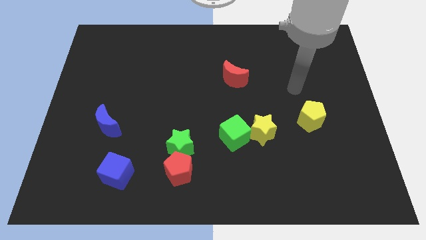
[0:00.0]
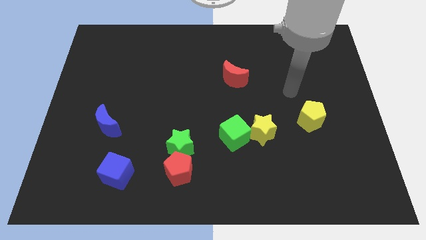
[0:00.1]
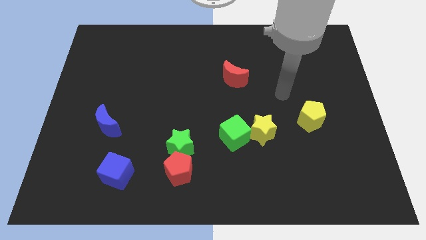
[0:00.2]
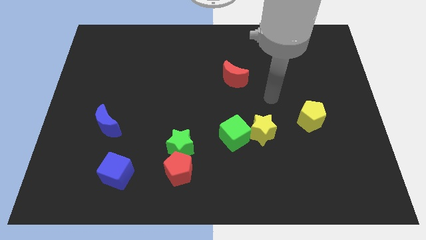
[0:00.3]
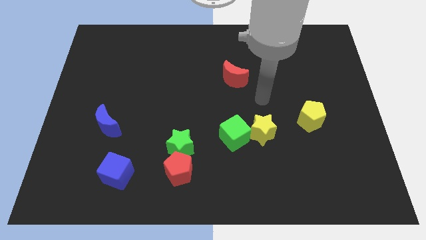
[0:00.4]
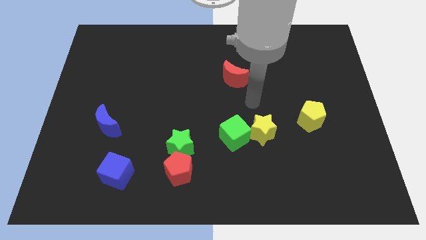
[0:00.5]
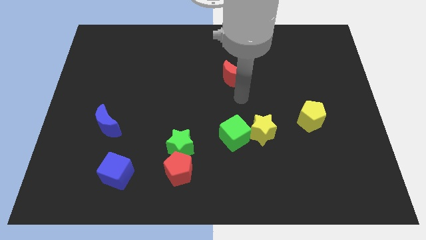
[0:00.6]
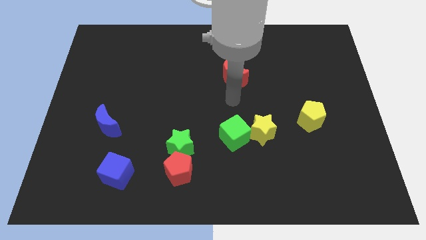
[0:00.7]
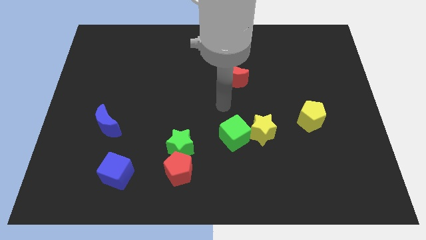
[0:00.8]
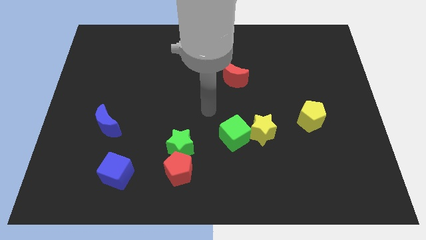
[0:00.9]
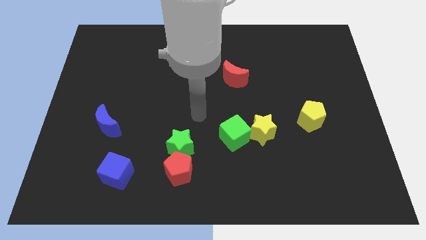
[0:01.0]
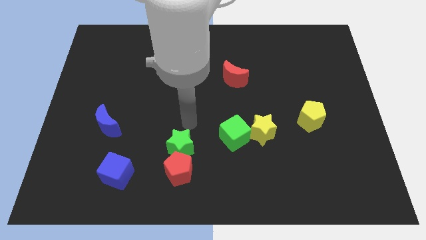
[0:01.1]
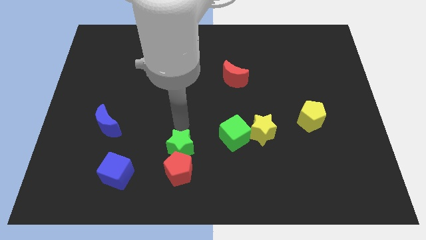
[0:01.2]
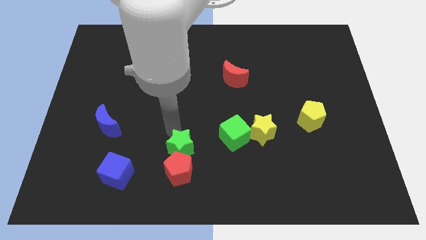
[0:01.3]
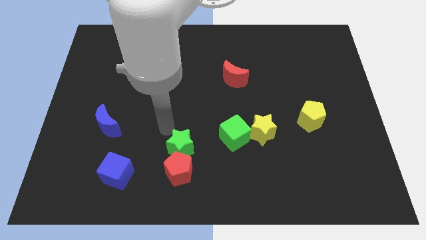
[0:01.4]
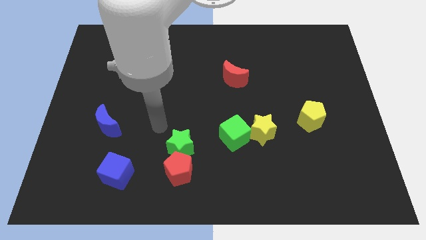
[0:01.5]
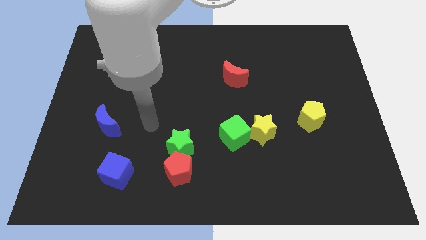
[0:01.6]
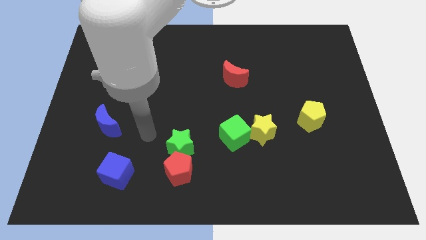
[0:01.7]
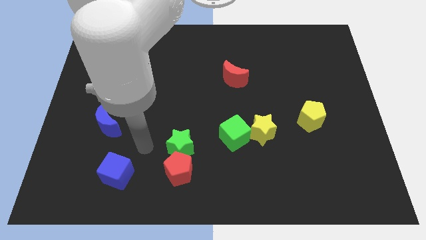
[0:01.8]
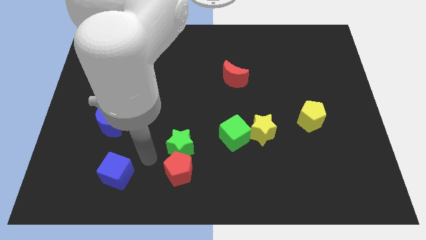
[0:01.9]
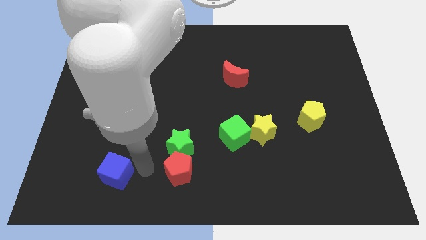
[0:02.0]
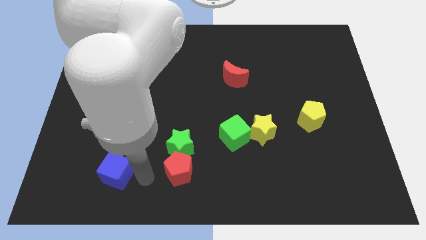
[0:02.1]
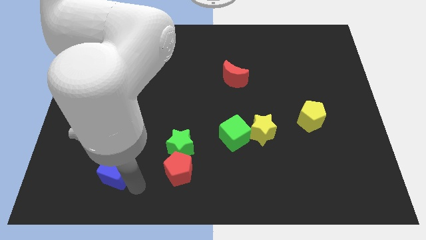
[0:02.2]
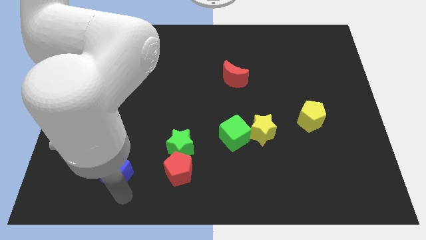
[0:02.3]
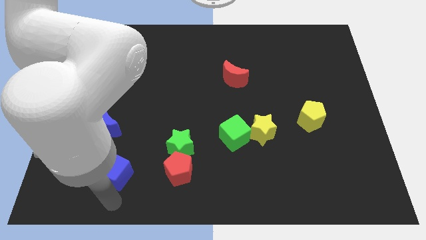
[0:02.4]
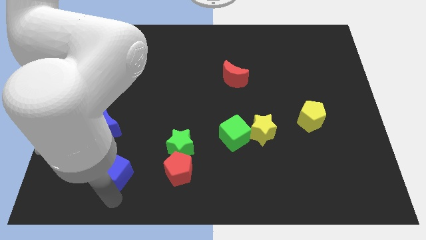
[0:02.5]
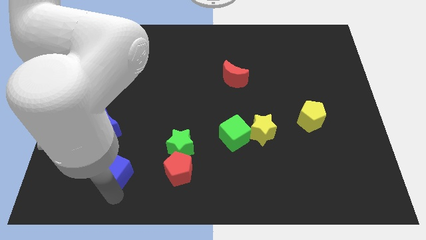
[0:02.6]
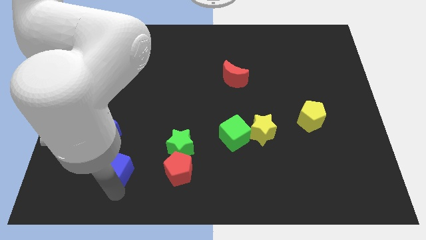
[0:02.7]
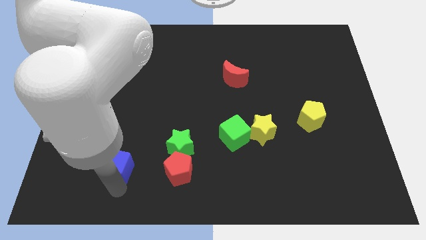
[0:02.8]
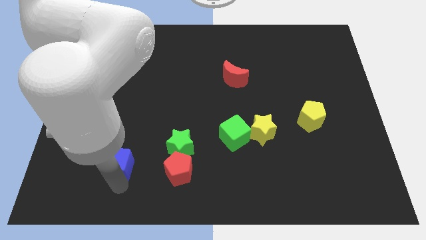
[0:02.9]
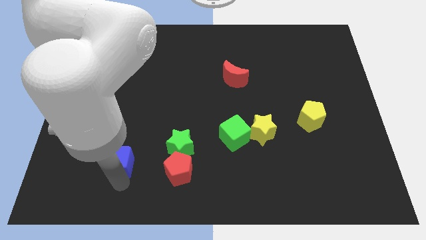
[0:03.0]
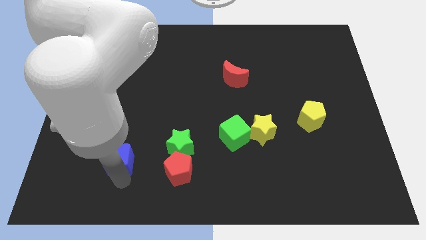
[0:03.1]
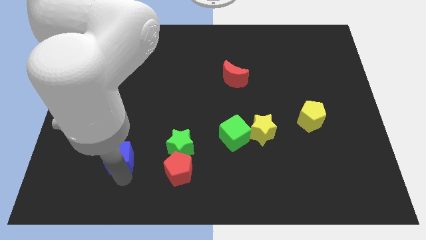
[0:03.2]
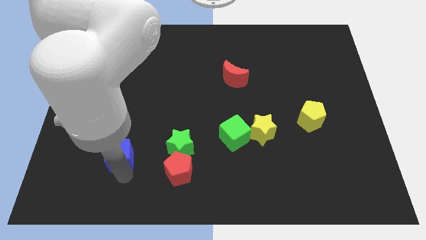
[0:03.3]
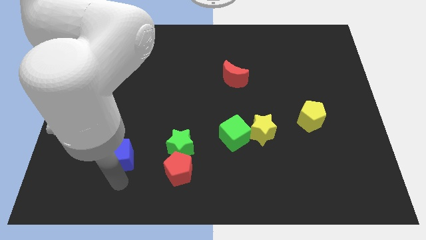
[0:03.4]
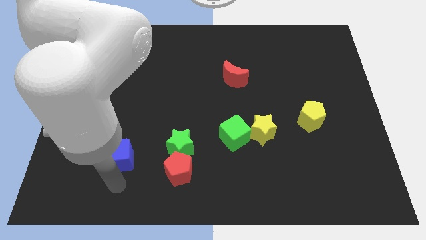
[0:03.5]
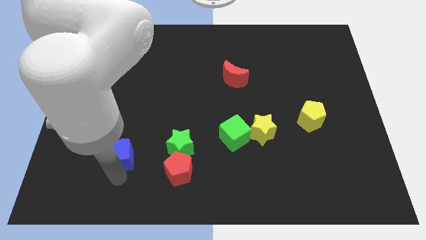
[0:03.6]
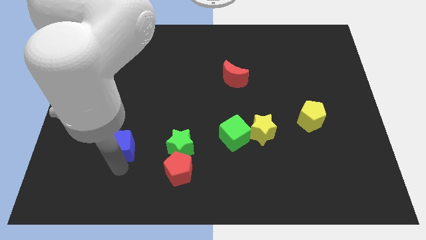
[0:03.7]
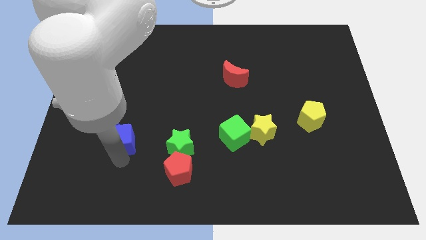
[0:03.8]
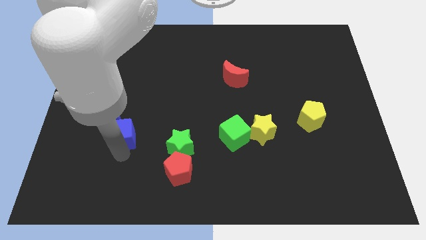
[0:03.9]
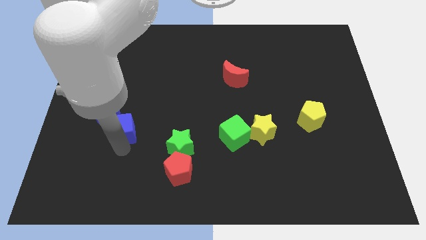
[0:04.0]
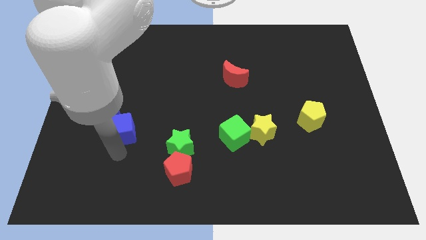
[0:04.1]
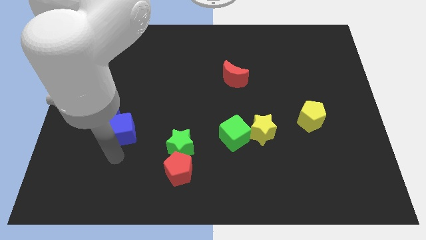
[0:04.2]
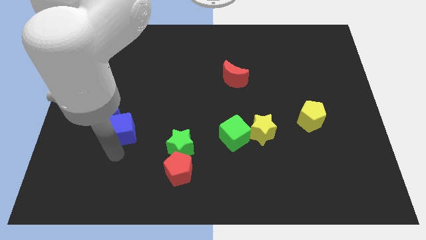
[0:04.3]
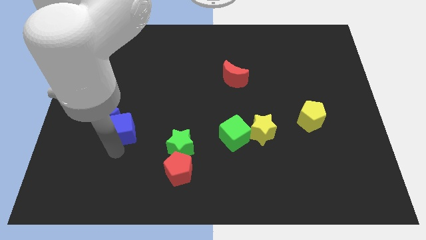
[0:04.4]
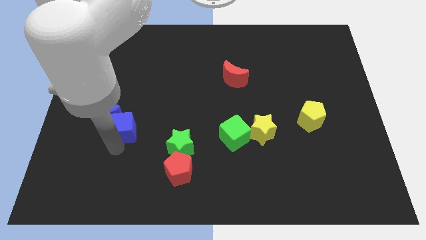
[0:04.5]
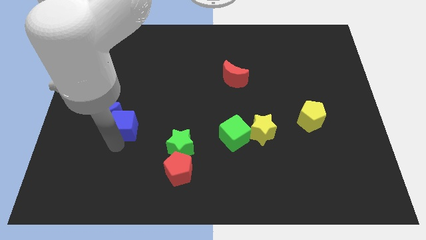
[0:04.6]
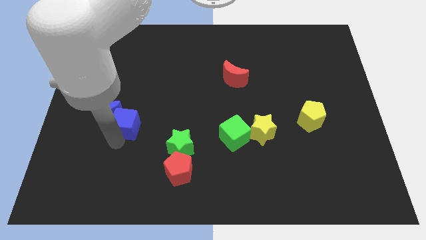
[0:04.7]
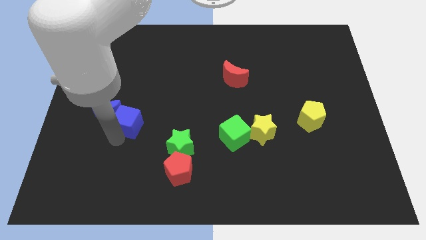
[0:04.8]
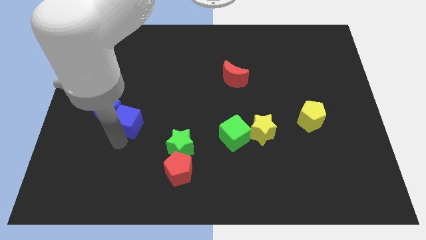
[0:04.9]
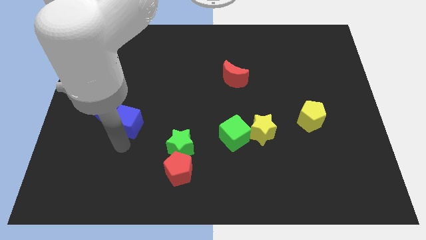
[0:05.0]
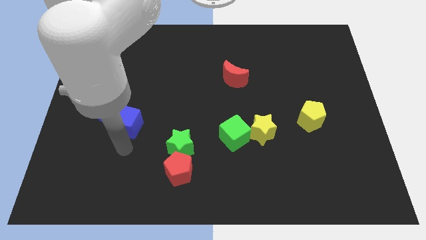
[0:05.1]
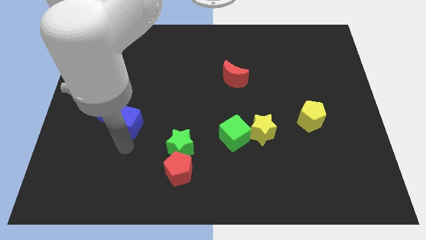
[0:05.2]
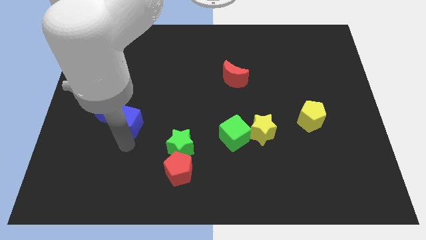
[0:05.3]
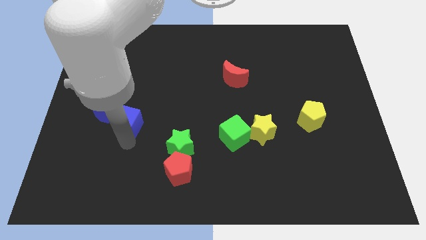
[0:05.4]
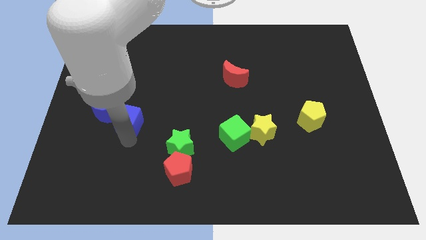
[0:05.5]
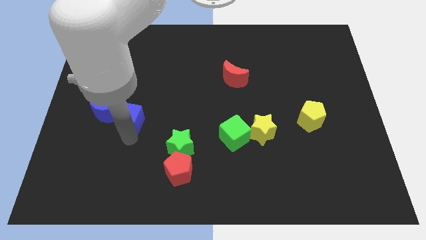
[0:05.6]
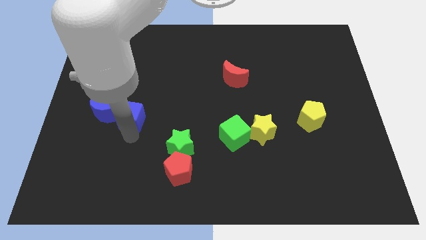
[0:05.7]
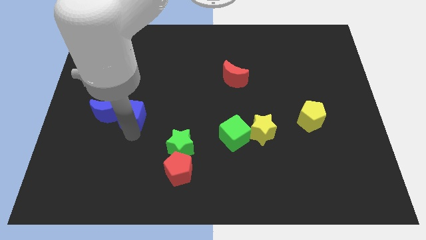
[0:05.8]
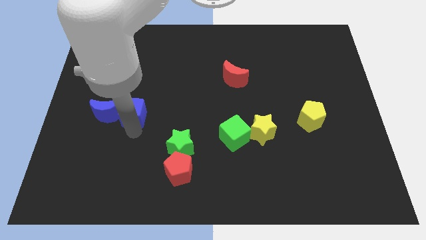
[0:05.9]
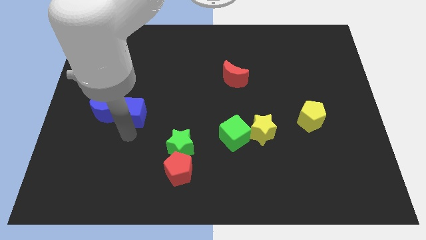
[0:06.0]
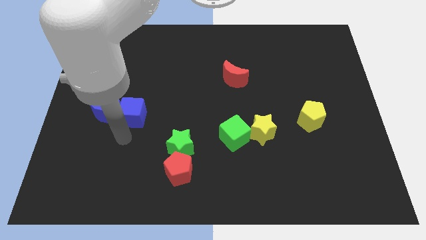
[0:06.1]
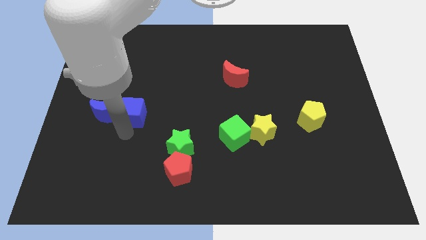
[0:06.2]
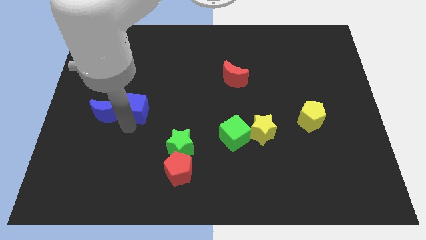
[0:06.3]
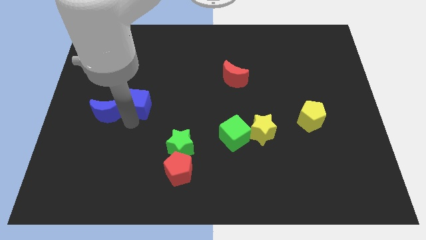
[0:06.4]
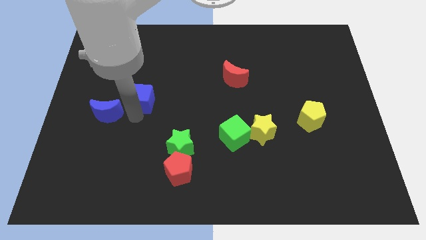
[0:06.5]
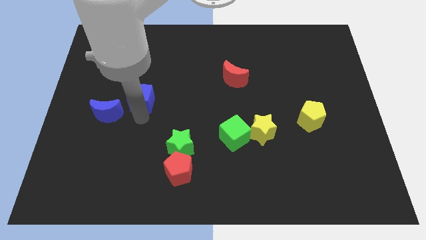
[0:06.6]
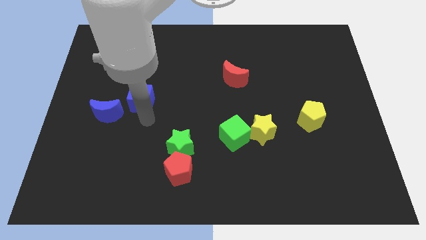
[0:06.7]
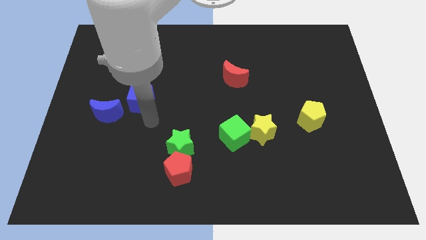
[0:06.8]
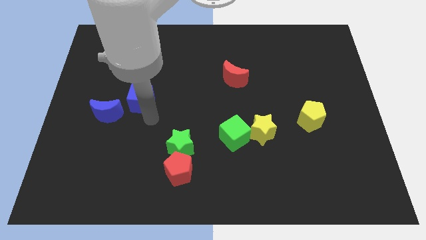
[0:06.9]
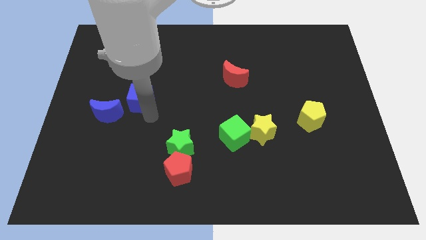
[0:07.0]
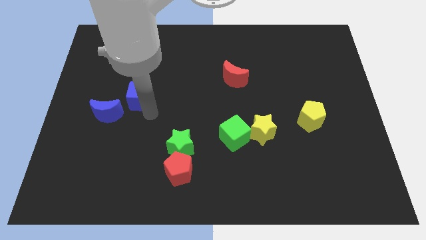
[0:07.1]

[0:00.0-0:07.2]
push the blue cube upwards

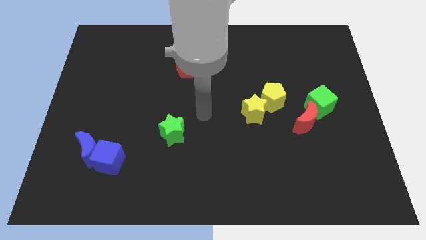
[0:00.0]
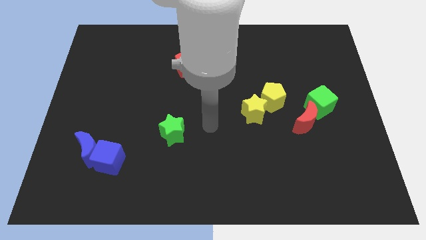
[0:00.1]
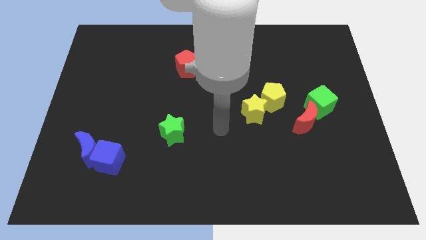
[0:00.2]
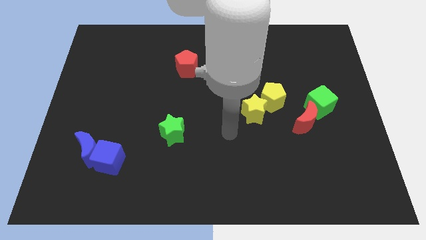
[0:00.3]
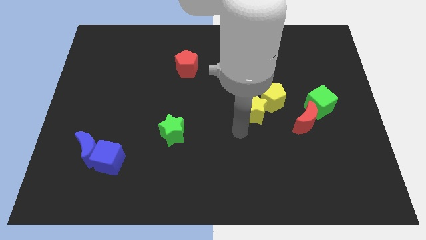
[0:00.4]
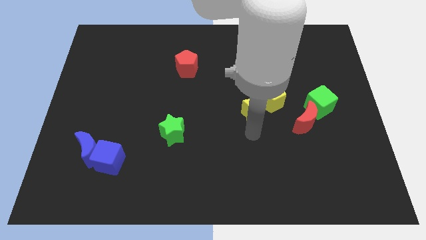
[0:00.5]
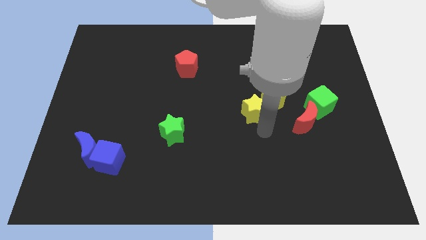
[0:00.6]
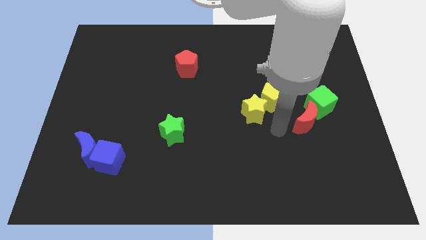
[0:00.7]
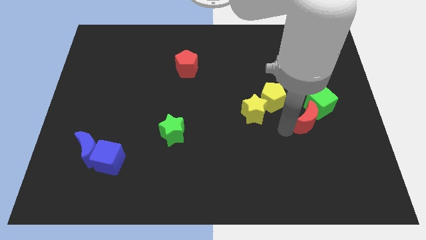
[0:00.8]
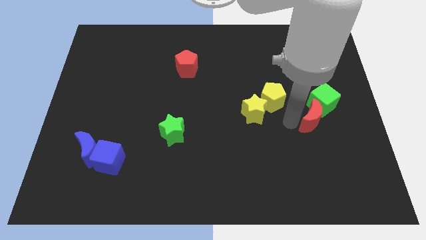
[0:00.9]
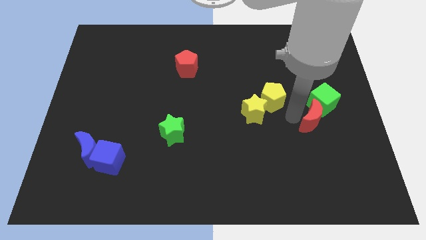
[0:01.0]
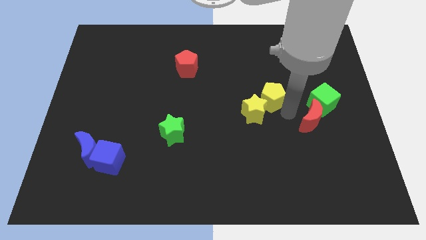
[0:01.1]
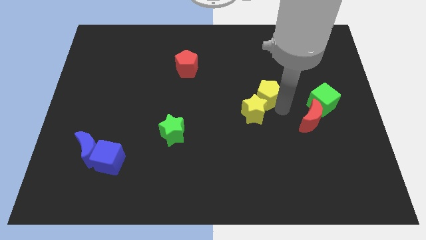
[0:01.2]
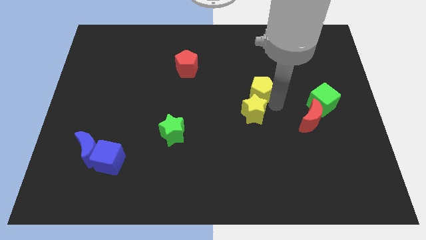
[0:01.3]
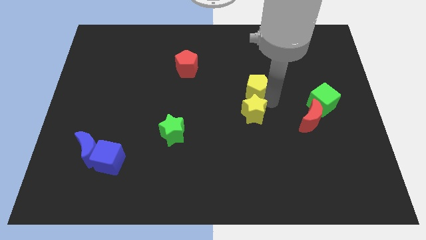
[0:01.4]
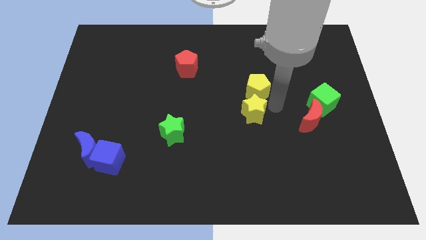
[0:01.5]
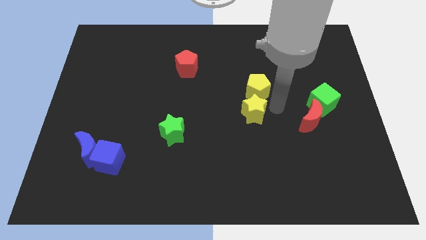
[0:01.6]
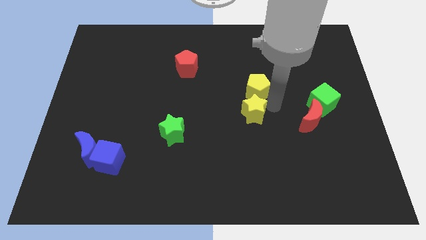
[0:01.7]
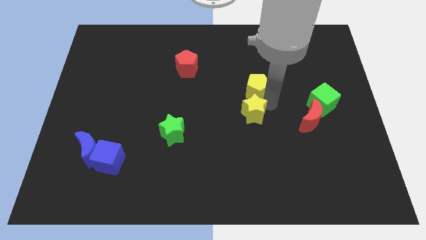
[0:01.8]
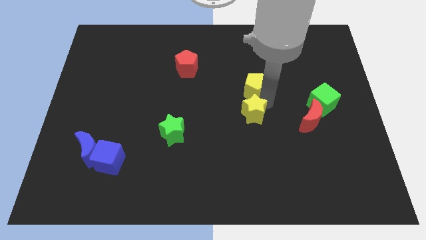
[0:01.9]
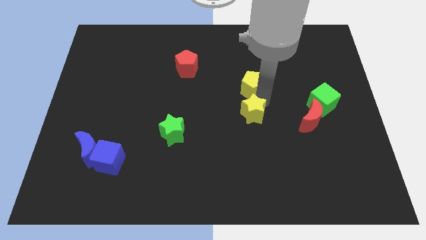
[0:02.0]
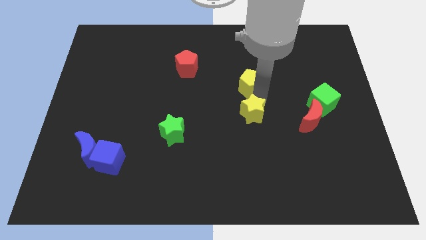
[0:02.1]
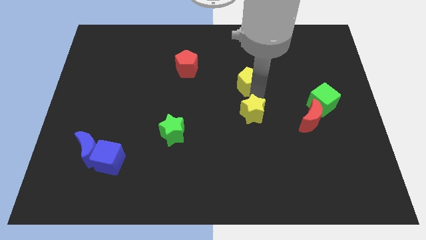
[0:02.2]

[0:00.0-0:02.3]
slightly slide the yellow pentagon upwards and to the left diagonally
